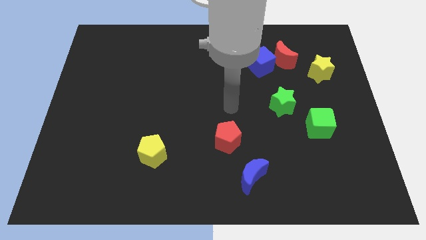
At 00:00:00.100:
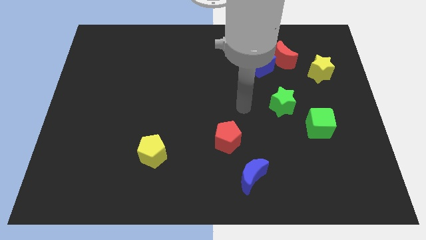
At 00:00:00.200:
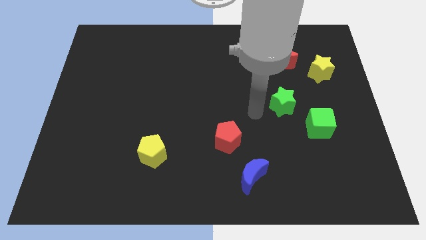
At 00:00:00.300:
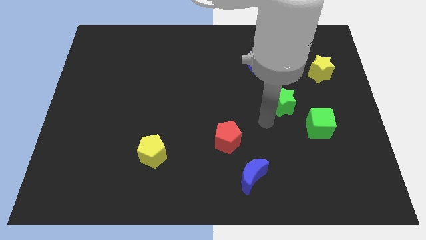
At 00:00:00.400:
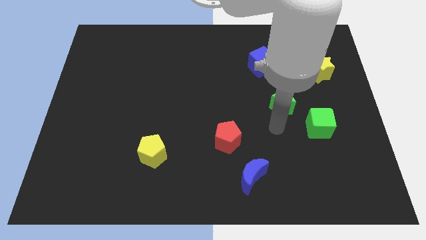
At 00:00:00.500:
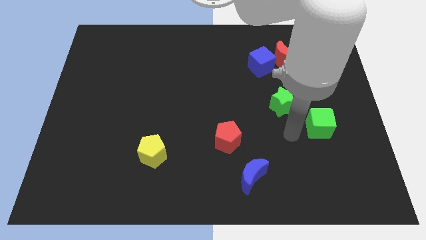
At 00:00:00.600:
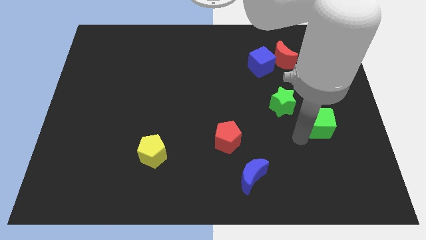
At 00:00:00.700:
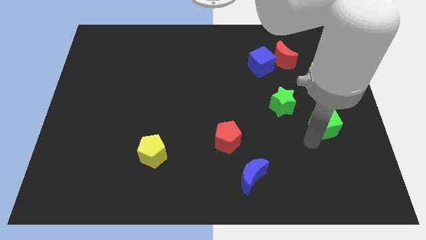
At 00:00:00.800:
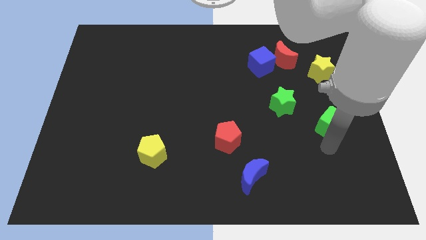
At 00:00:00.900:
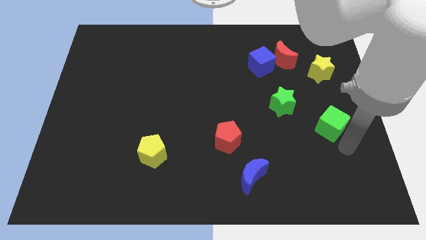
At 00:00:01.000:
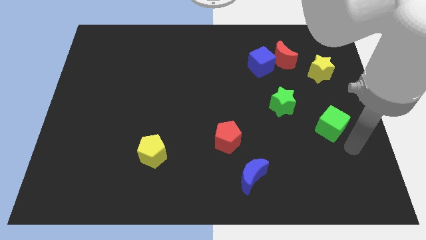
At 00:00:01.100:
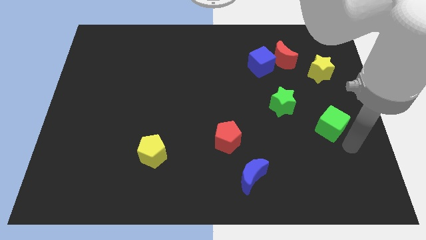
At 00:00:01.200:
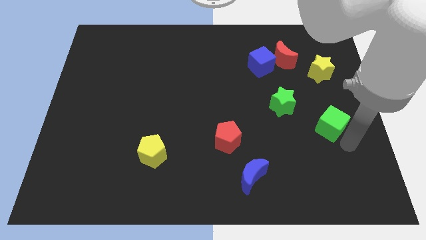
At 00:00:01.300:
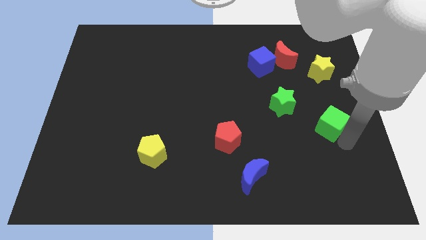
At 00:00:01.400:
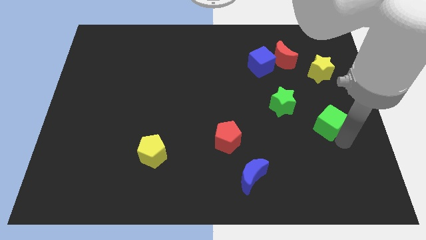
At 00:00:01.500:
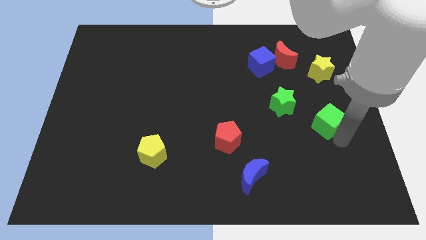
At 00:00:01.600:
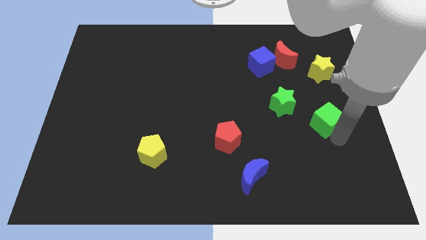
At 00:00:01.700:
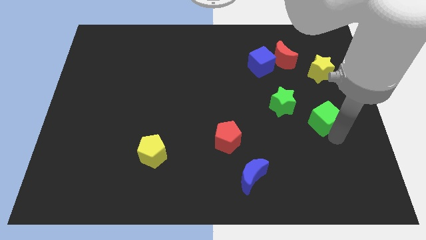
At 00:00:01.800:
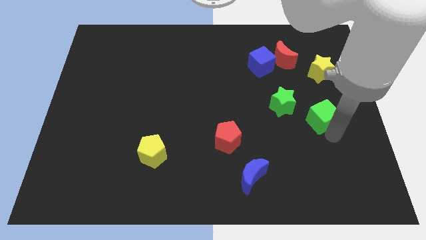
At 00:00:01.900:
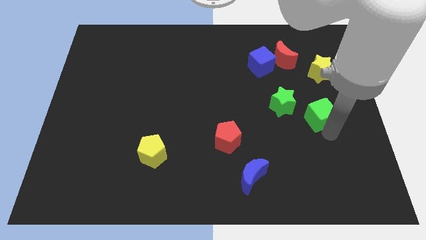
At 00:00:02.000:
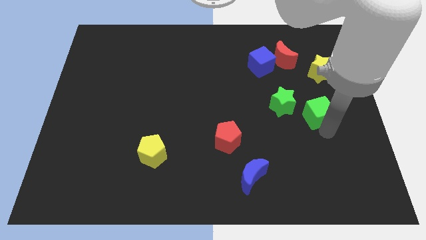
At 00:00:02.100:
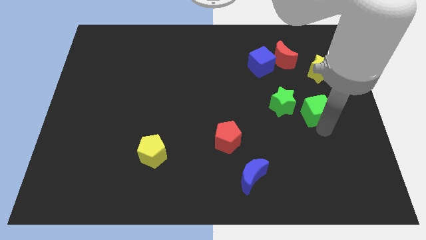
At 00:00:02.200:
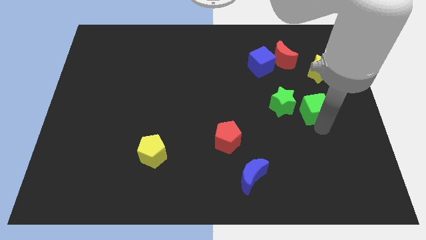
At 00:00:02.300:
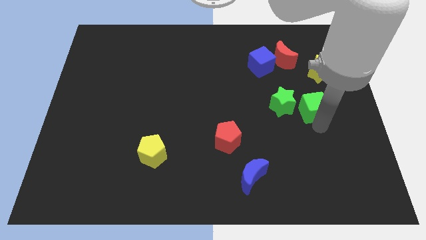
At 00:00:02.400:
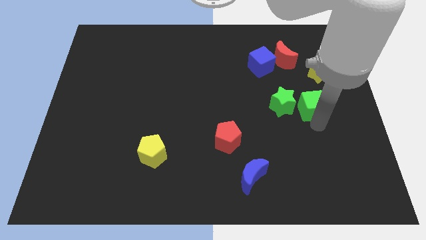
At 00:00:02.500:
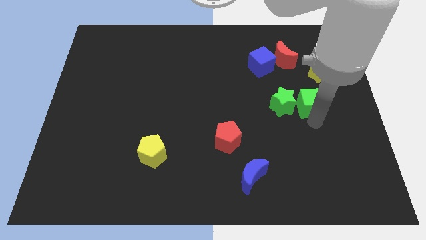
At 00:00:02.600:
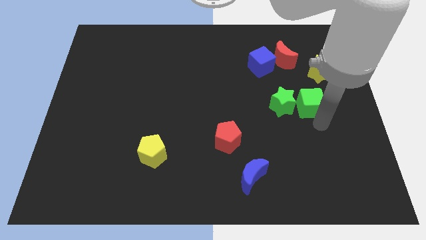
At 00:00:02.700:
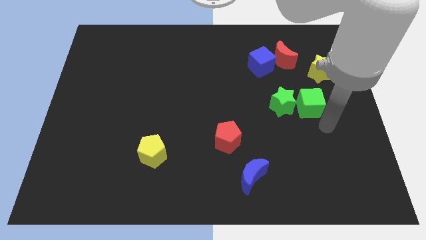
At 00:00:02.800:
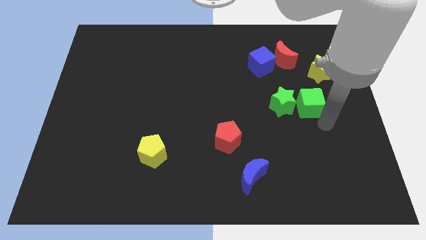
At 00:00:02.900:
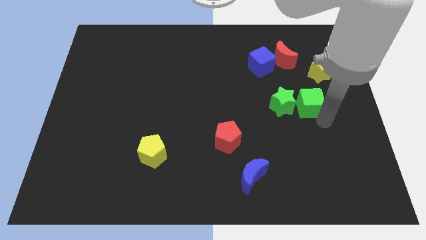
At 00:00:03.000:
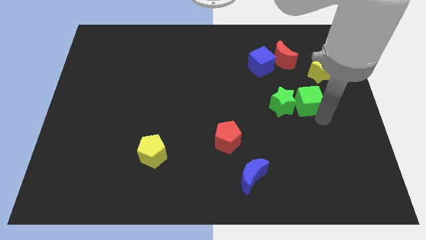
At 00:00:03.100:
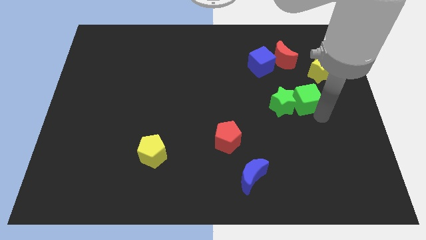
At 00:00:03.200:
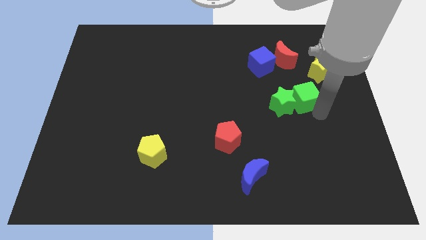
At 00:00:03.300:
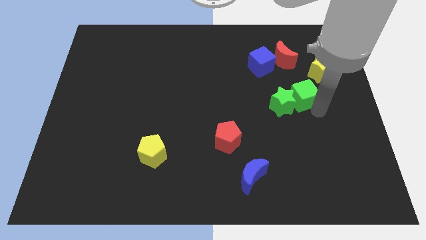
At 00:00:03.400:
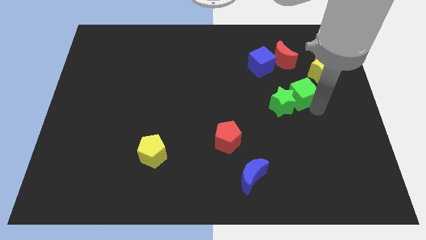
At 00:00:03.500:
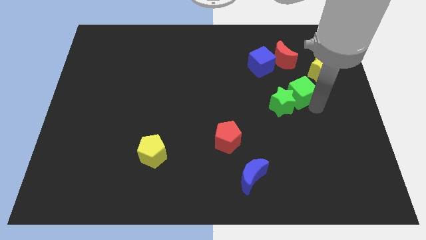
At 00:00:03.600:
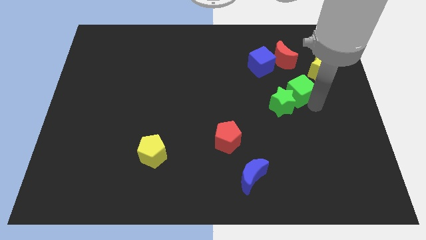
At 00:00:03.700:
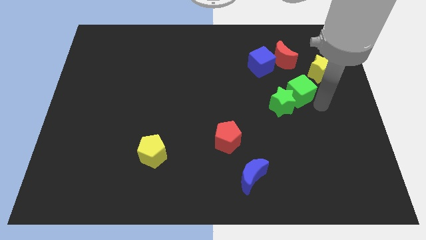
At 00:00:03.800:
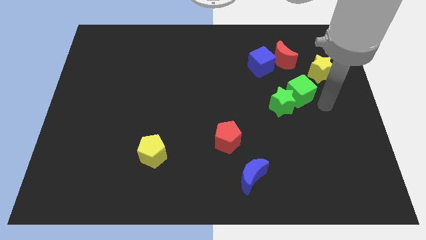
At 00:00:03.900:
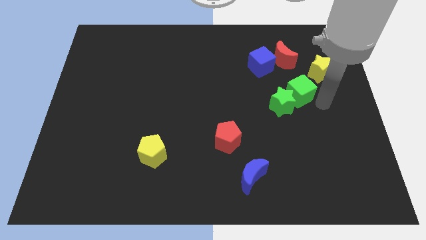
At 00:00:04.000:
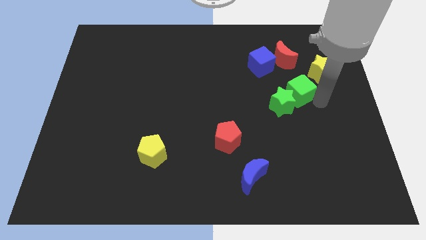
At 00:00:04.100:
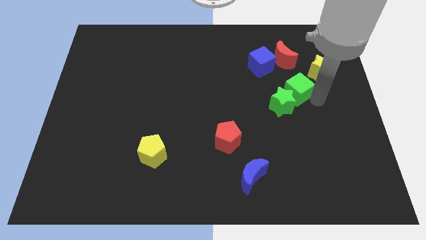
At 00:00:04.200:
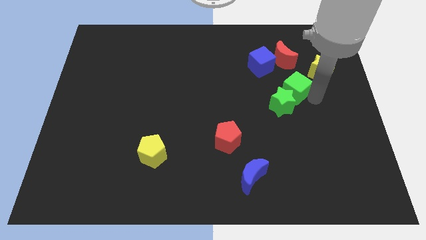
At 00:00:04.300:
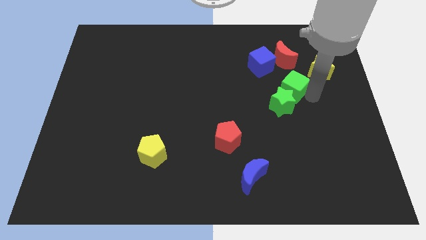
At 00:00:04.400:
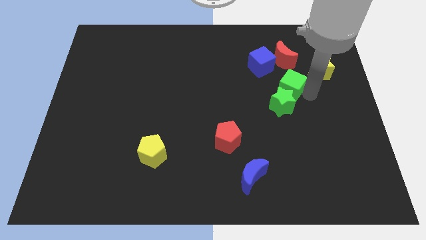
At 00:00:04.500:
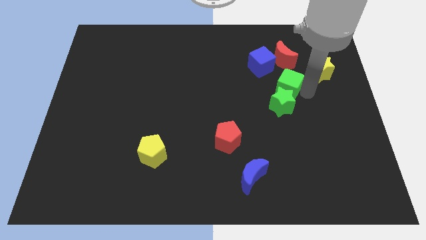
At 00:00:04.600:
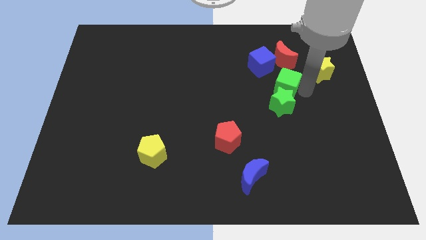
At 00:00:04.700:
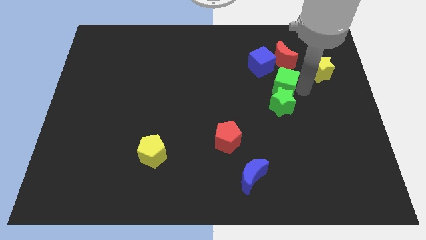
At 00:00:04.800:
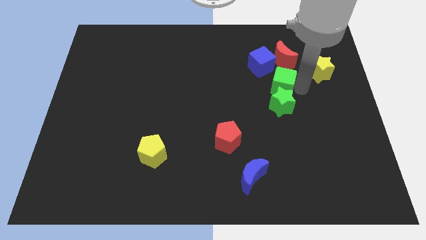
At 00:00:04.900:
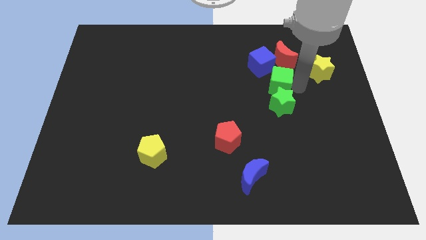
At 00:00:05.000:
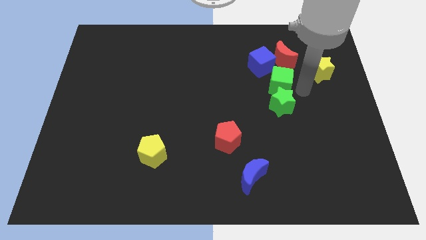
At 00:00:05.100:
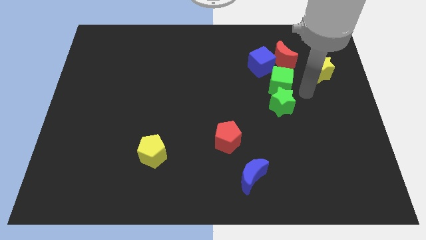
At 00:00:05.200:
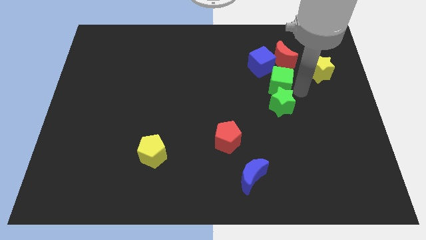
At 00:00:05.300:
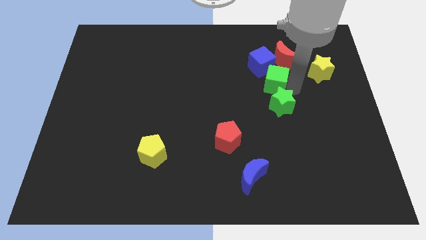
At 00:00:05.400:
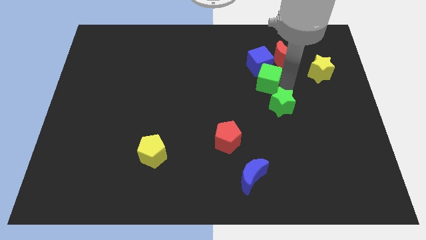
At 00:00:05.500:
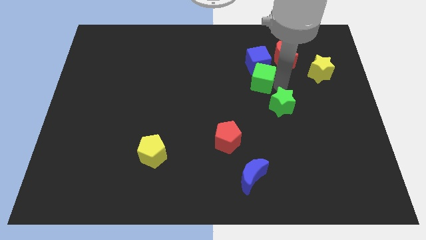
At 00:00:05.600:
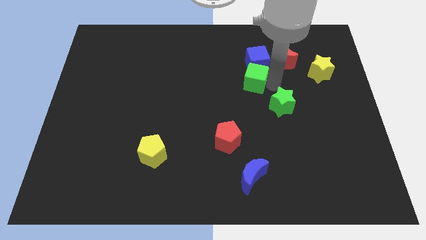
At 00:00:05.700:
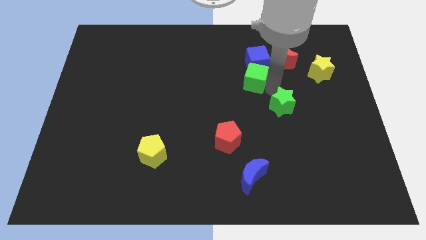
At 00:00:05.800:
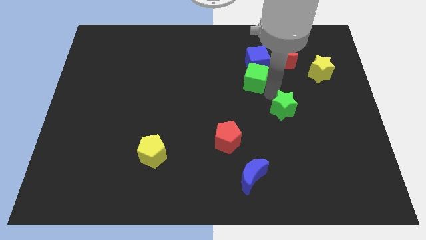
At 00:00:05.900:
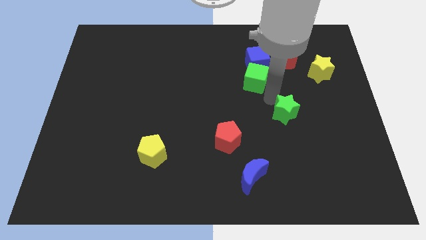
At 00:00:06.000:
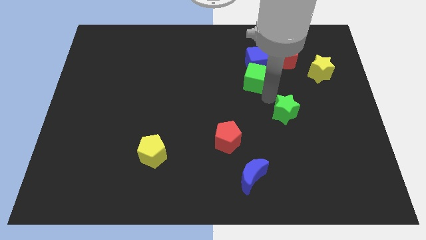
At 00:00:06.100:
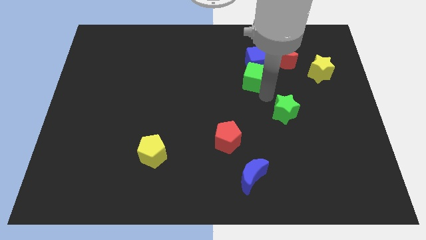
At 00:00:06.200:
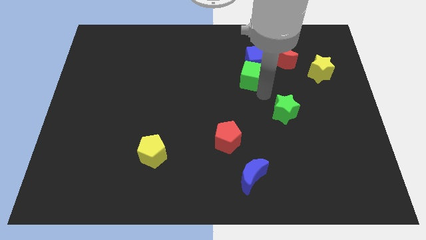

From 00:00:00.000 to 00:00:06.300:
slide the green cube up and left

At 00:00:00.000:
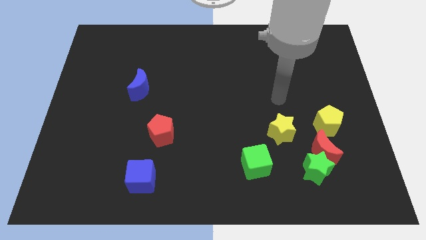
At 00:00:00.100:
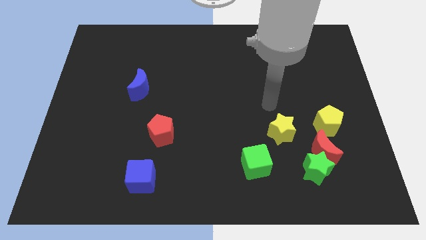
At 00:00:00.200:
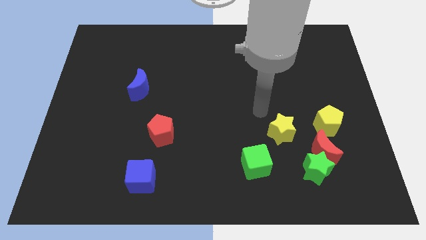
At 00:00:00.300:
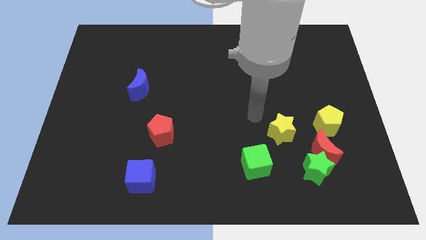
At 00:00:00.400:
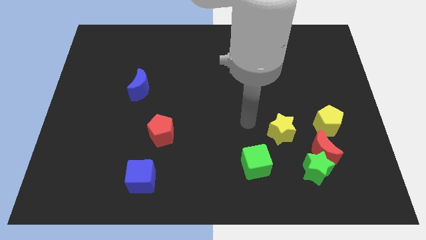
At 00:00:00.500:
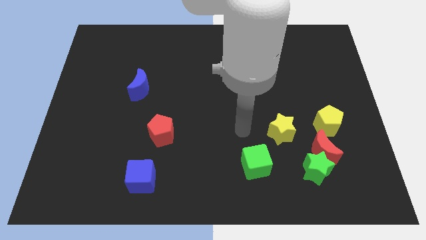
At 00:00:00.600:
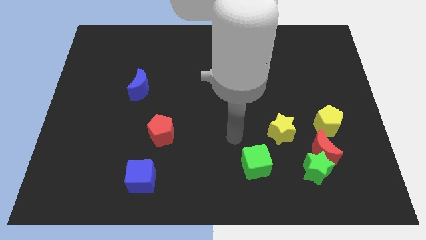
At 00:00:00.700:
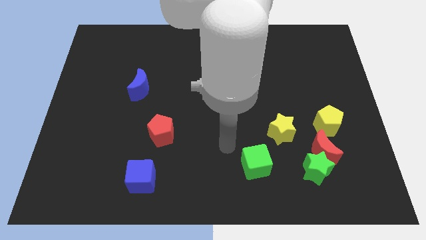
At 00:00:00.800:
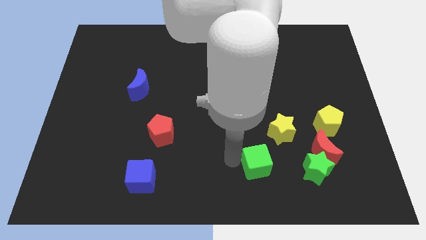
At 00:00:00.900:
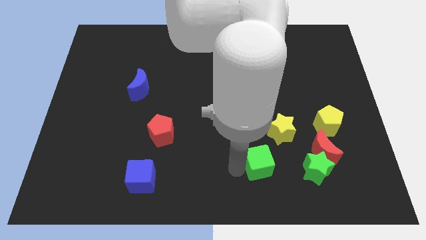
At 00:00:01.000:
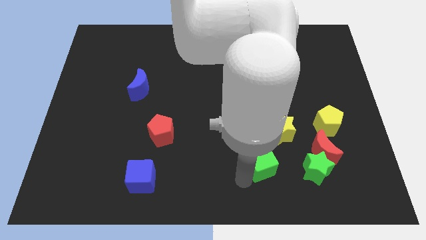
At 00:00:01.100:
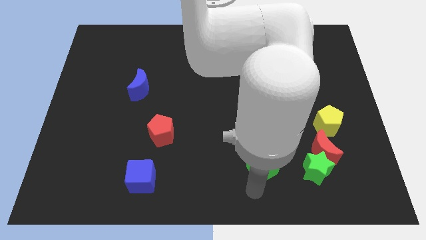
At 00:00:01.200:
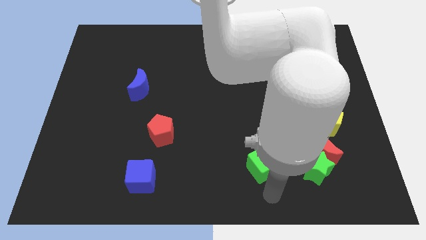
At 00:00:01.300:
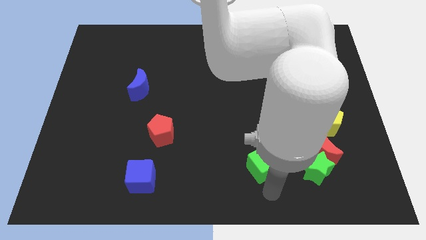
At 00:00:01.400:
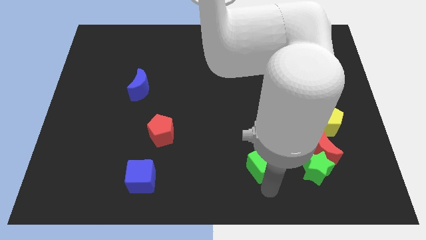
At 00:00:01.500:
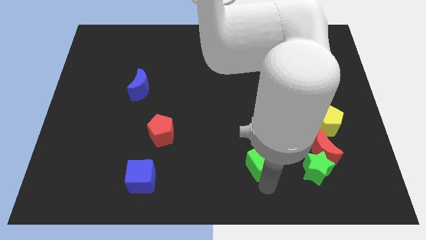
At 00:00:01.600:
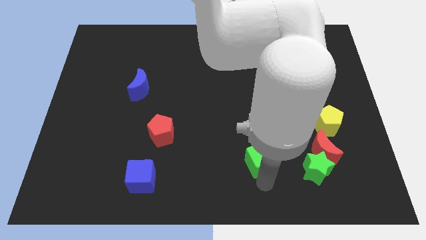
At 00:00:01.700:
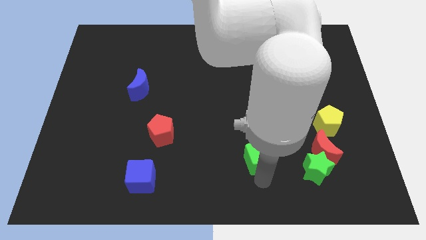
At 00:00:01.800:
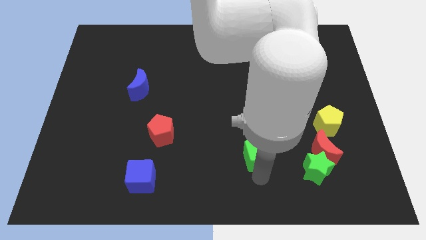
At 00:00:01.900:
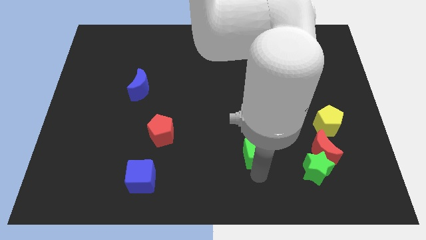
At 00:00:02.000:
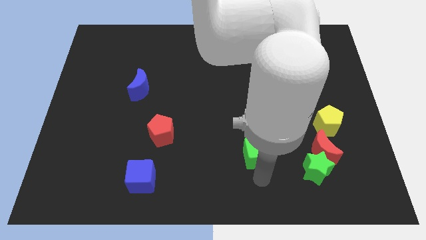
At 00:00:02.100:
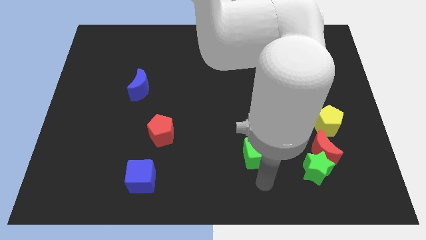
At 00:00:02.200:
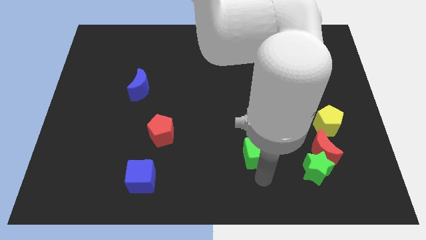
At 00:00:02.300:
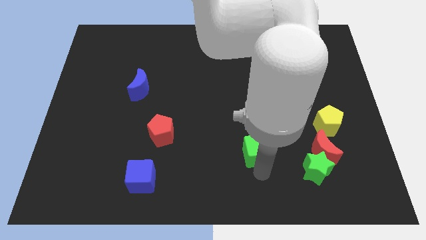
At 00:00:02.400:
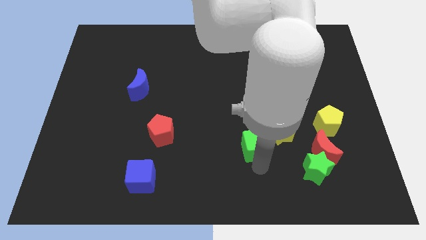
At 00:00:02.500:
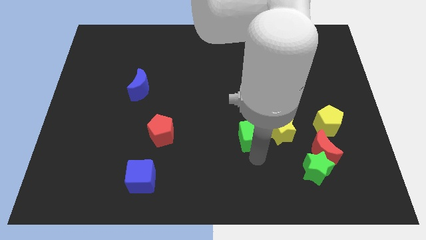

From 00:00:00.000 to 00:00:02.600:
push the green cube up a bit
